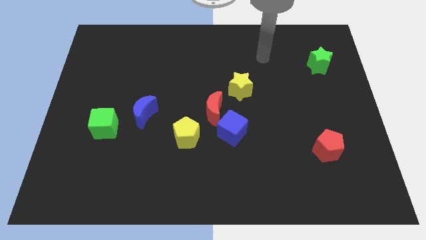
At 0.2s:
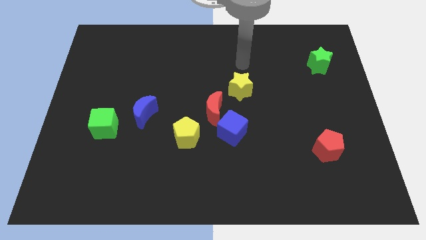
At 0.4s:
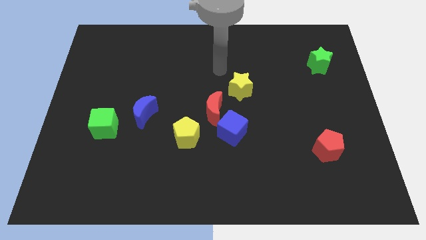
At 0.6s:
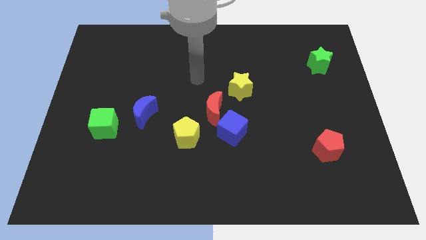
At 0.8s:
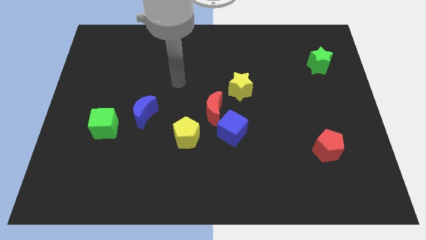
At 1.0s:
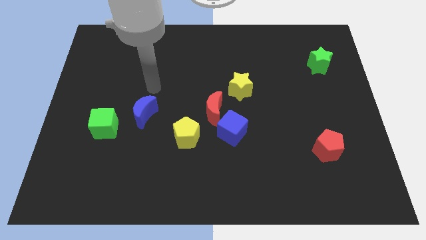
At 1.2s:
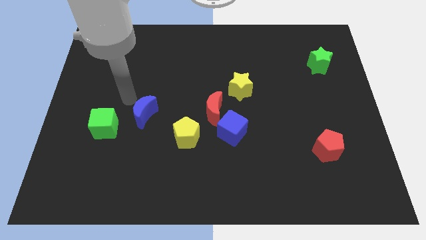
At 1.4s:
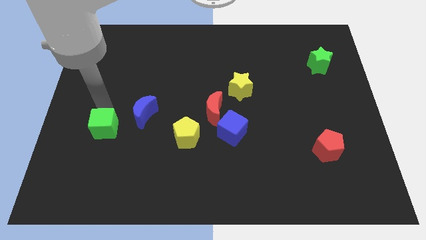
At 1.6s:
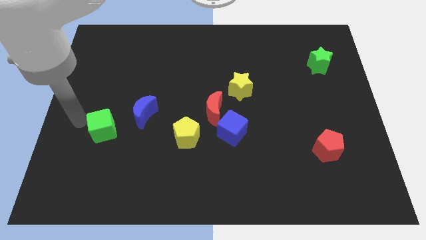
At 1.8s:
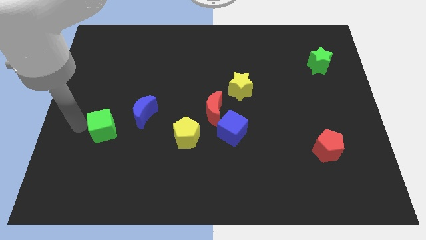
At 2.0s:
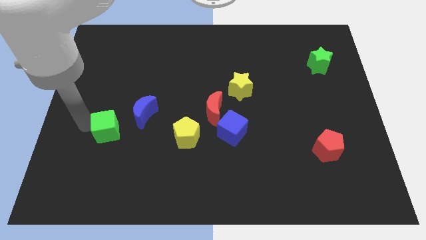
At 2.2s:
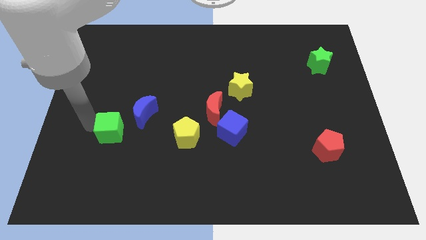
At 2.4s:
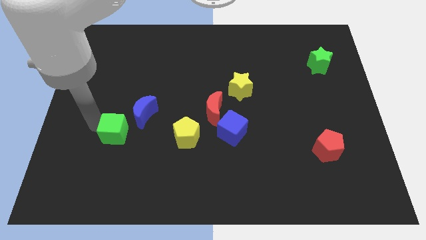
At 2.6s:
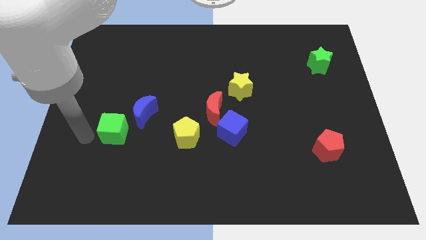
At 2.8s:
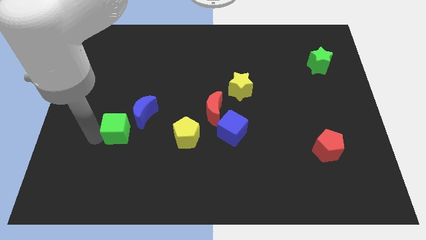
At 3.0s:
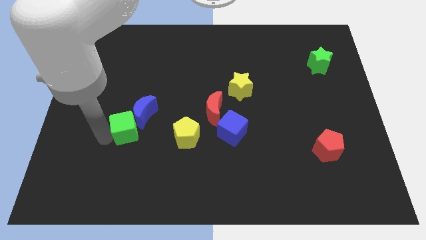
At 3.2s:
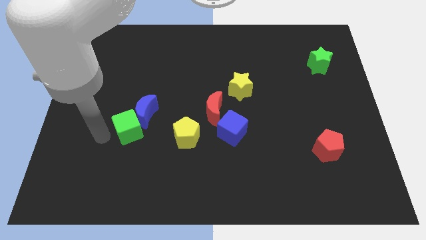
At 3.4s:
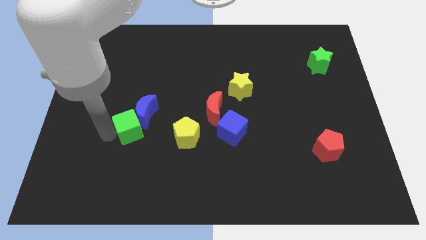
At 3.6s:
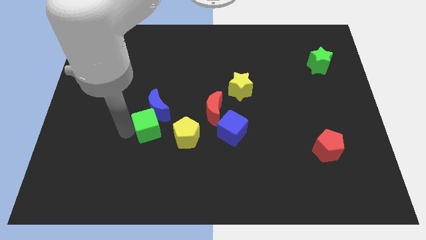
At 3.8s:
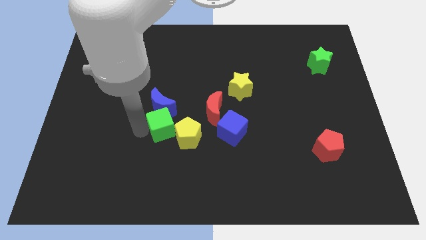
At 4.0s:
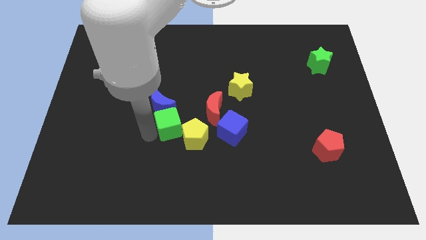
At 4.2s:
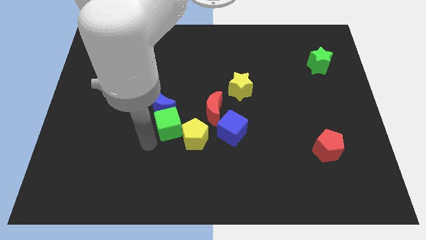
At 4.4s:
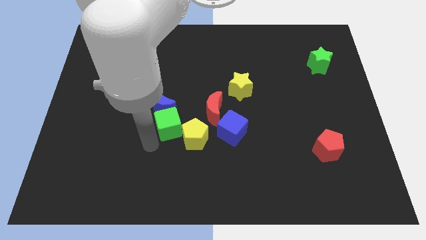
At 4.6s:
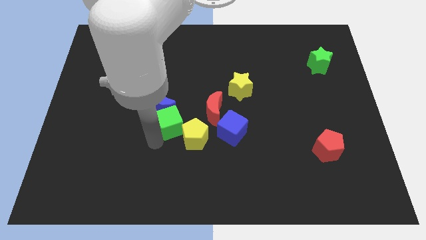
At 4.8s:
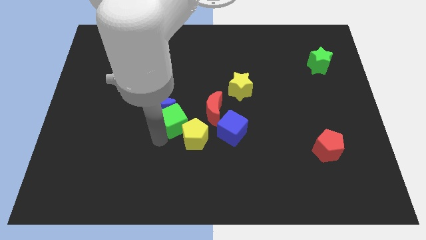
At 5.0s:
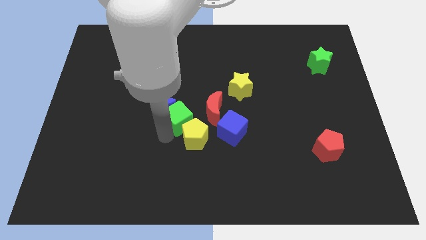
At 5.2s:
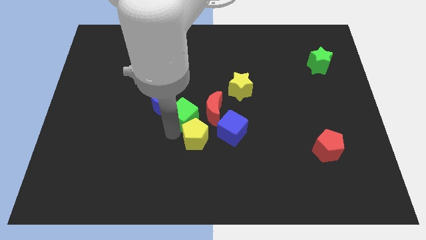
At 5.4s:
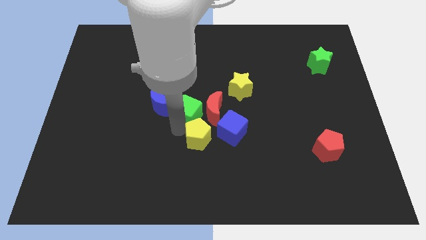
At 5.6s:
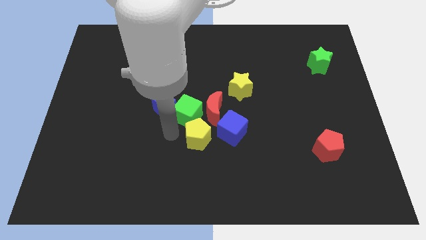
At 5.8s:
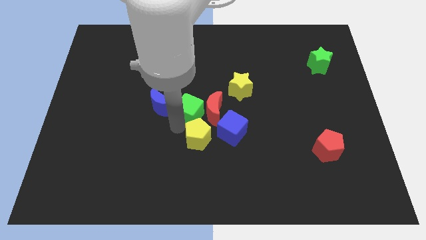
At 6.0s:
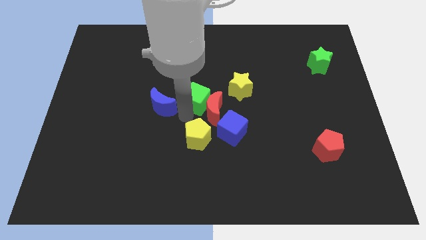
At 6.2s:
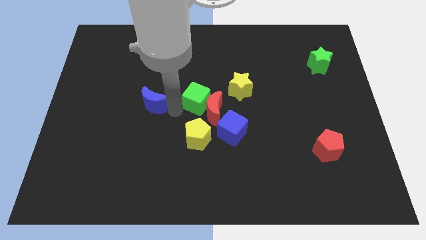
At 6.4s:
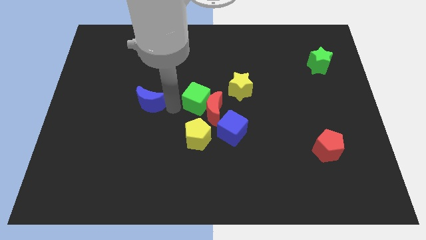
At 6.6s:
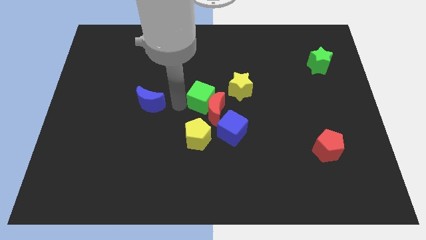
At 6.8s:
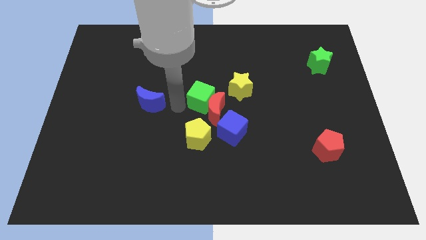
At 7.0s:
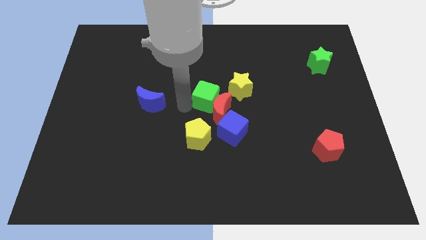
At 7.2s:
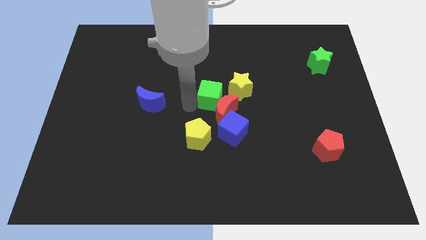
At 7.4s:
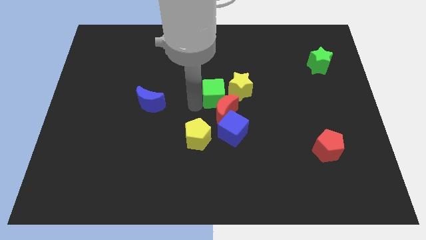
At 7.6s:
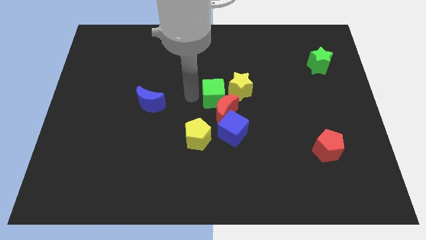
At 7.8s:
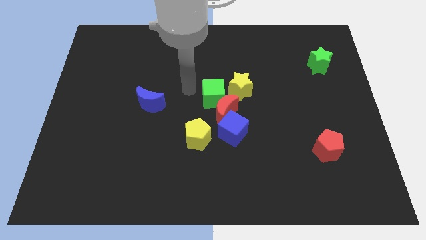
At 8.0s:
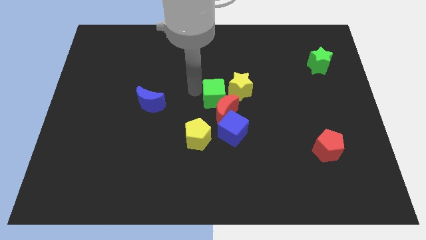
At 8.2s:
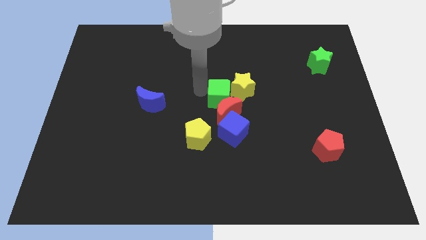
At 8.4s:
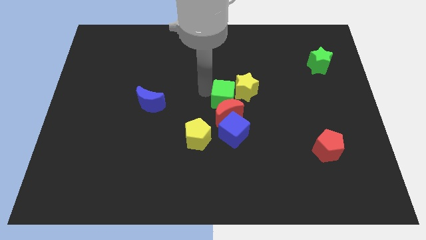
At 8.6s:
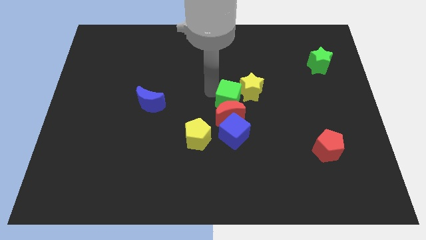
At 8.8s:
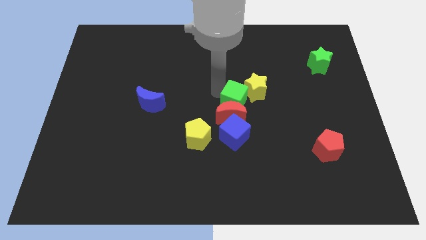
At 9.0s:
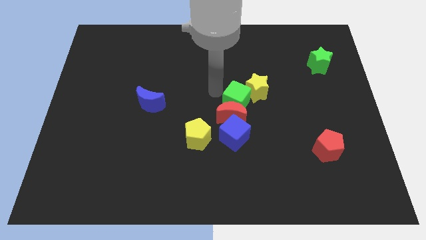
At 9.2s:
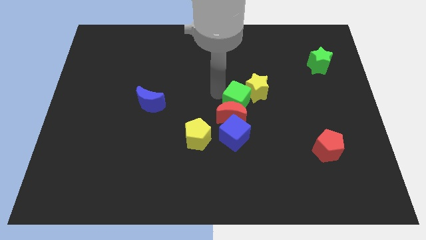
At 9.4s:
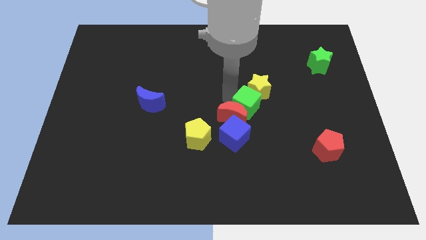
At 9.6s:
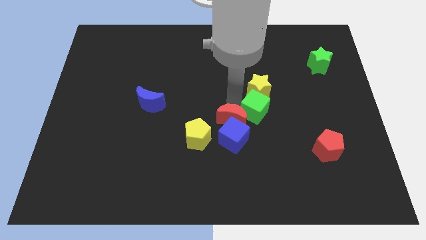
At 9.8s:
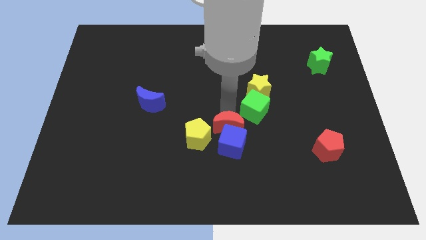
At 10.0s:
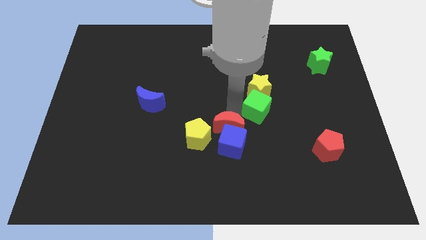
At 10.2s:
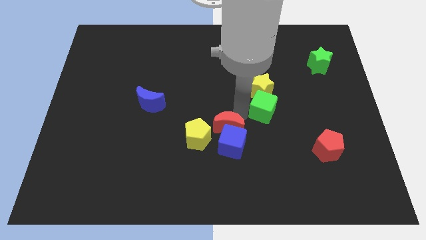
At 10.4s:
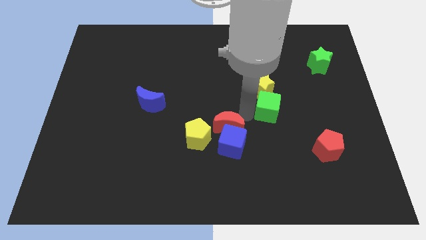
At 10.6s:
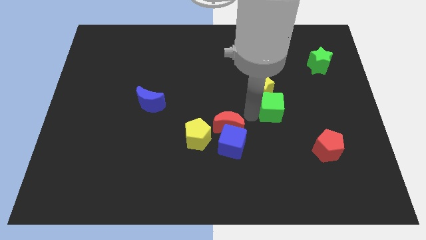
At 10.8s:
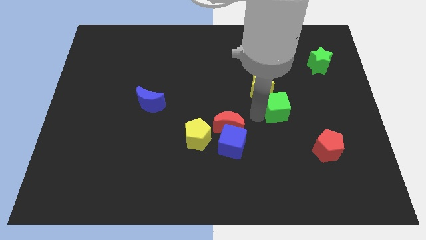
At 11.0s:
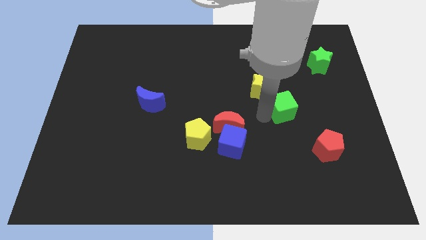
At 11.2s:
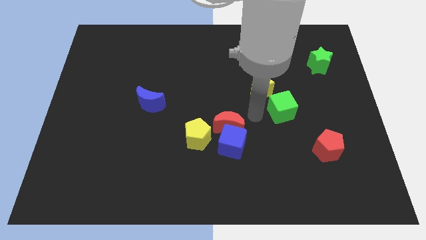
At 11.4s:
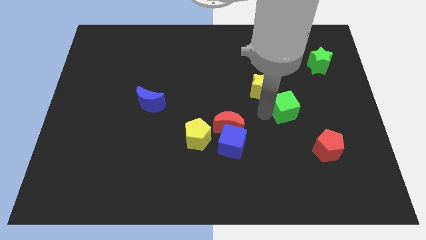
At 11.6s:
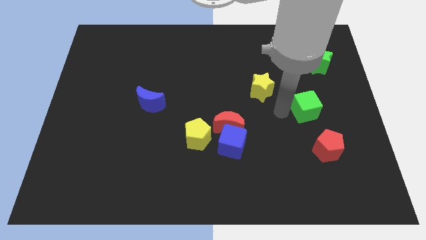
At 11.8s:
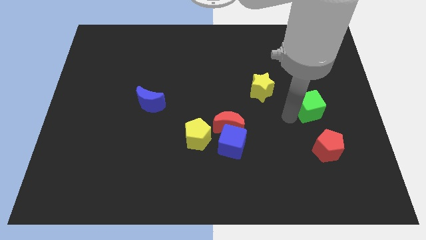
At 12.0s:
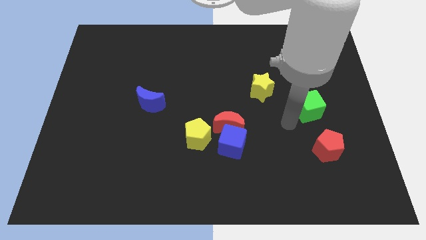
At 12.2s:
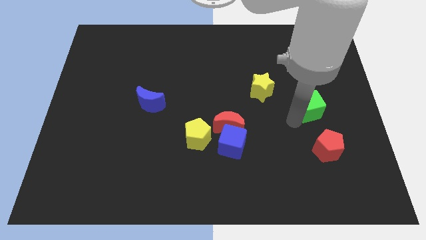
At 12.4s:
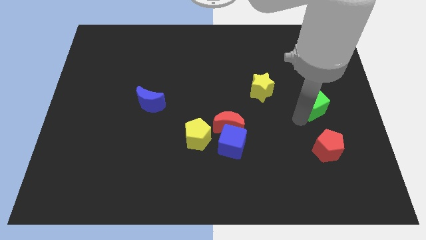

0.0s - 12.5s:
slide the green cube below the green star
